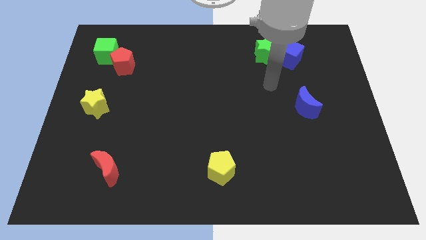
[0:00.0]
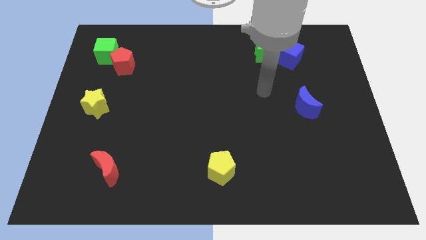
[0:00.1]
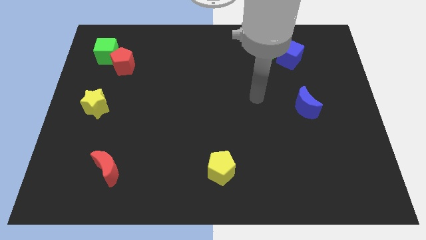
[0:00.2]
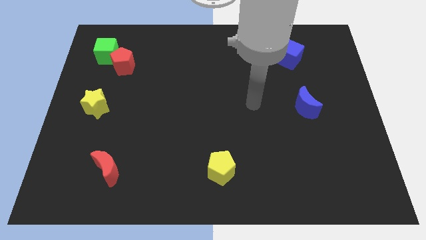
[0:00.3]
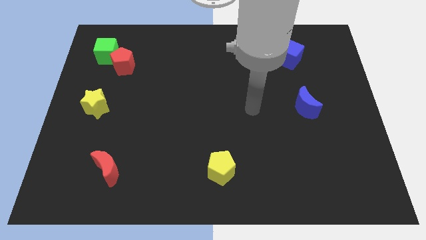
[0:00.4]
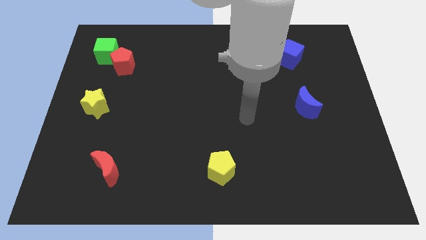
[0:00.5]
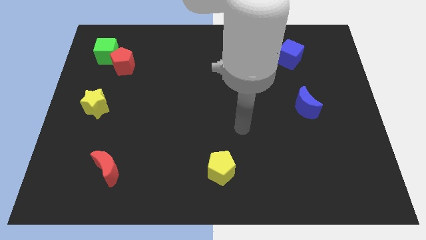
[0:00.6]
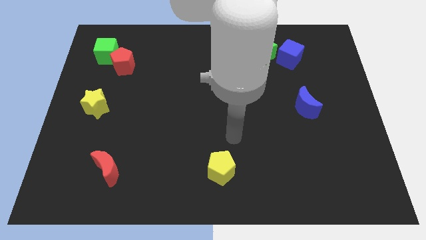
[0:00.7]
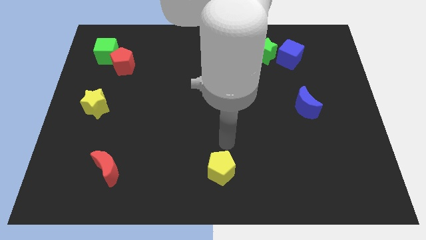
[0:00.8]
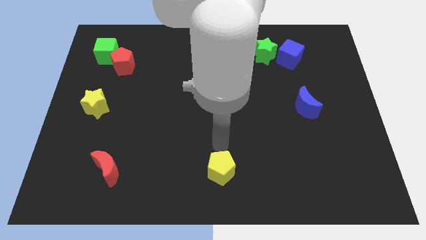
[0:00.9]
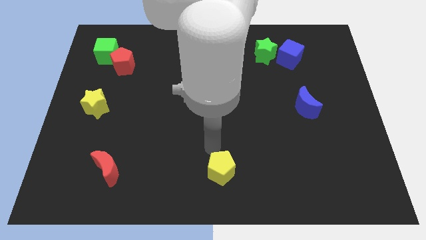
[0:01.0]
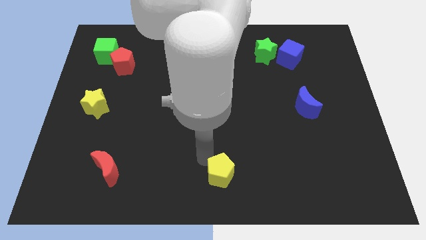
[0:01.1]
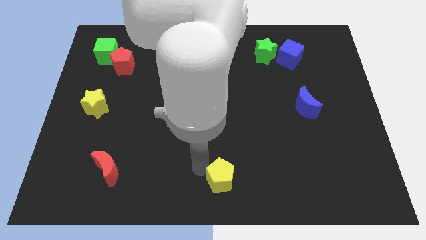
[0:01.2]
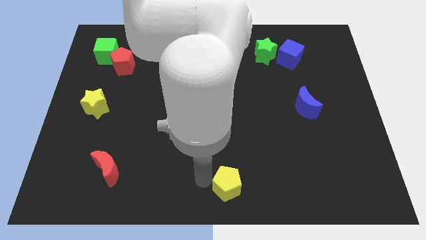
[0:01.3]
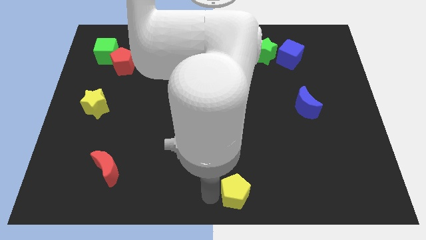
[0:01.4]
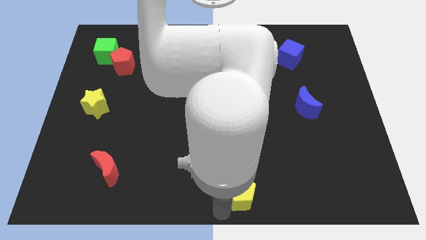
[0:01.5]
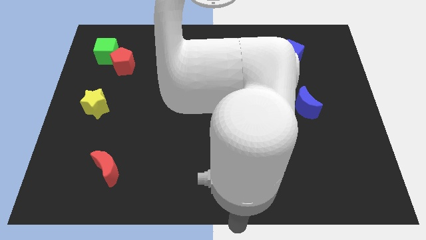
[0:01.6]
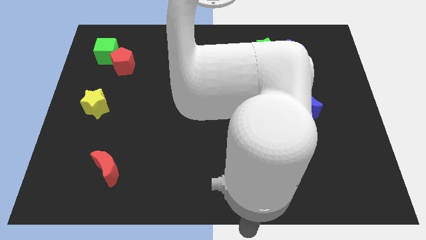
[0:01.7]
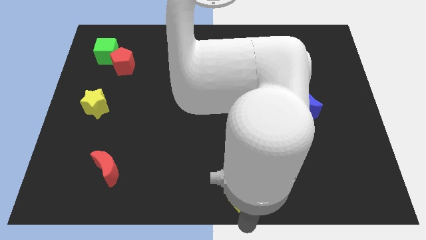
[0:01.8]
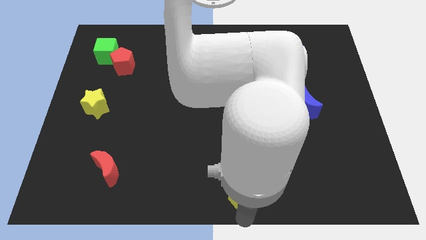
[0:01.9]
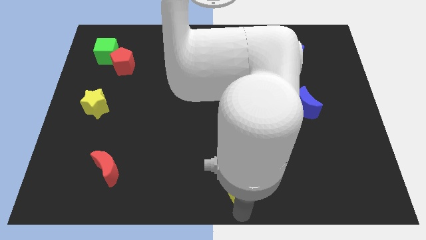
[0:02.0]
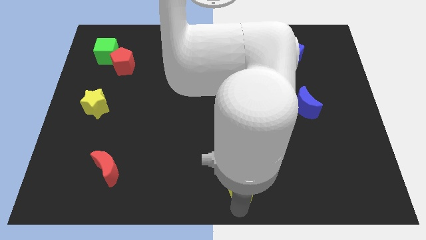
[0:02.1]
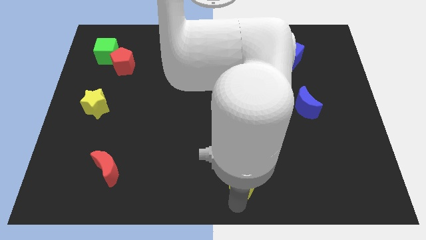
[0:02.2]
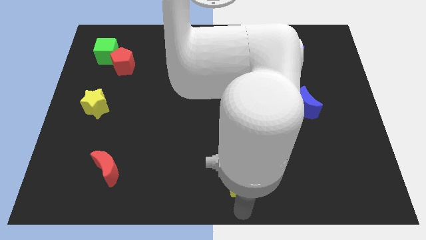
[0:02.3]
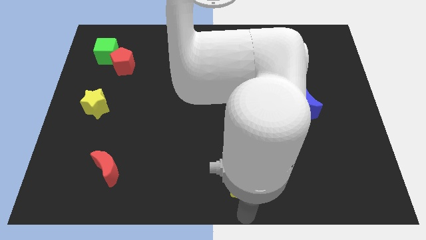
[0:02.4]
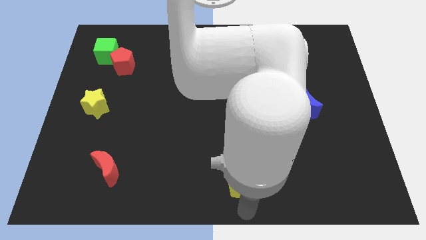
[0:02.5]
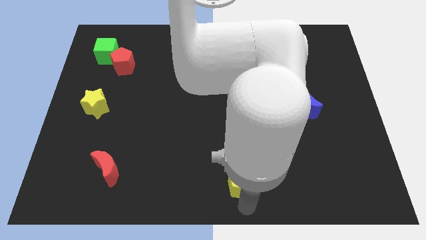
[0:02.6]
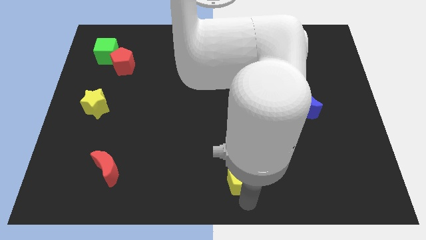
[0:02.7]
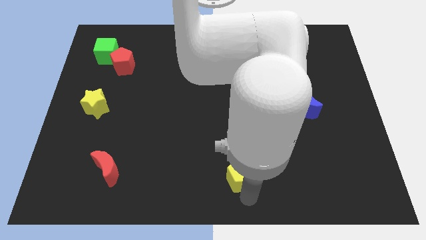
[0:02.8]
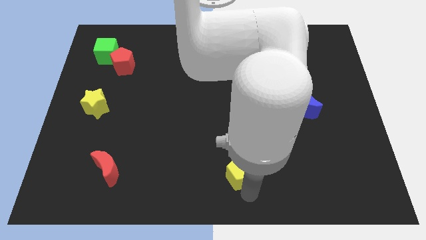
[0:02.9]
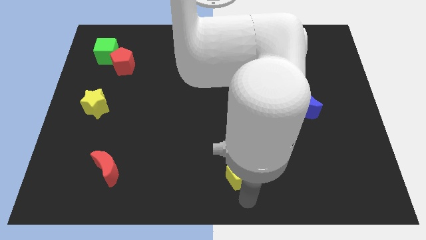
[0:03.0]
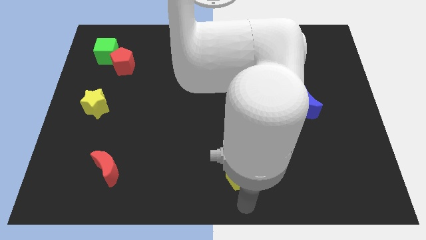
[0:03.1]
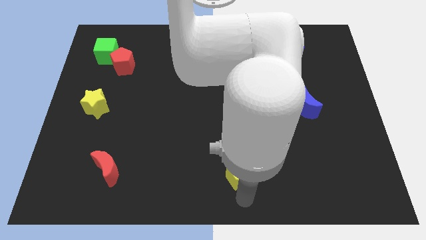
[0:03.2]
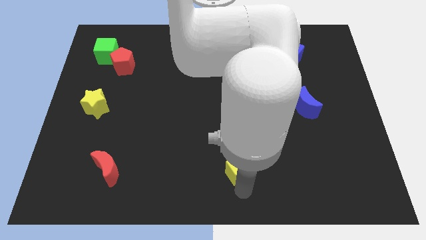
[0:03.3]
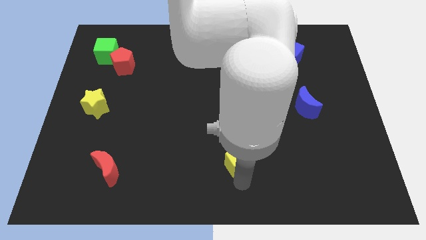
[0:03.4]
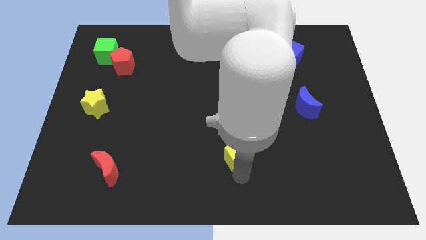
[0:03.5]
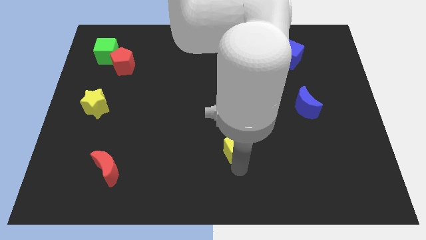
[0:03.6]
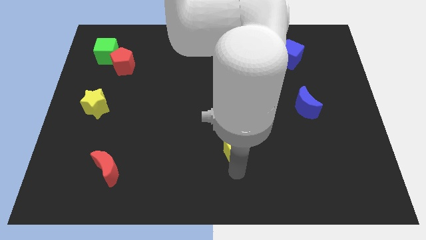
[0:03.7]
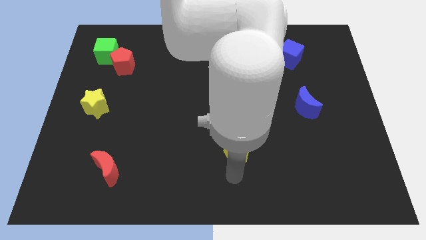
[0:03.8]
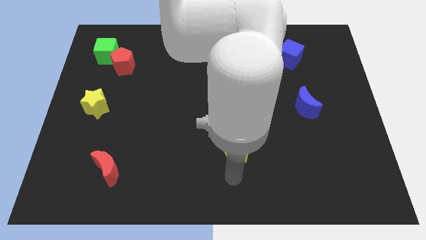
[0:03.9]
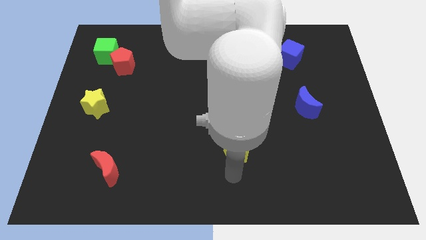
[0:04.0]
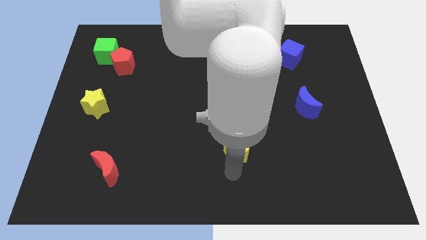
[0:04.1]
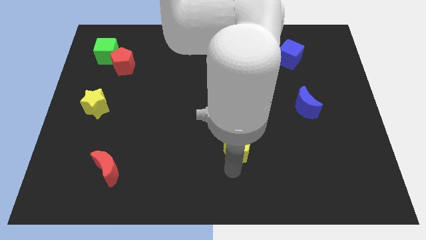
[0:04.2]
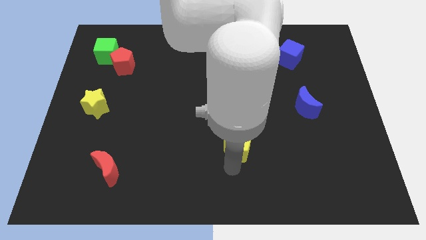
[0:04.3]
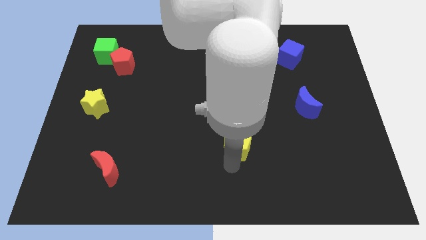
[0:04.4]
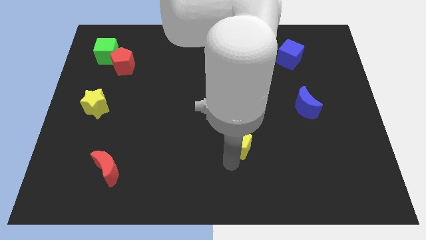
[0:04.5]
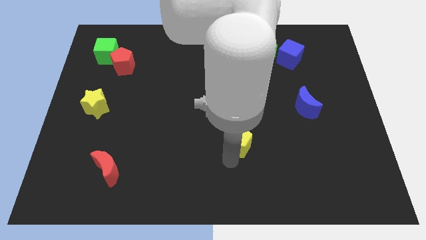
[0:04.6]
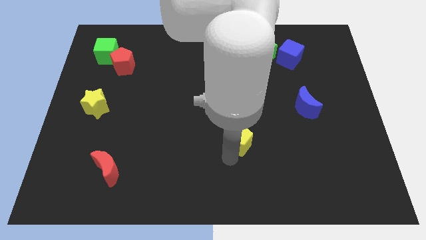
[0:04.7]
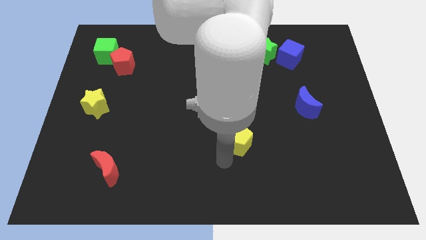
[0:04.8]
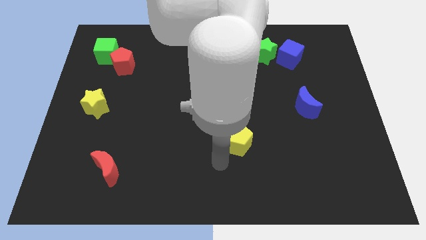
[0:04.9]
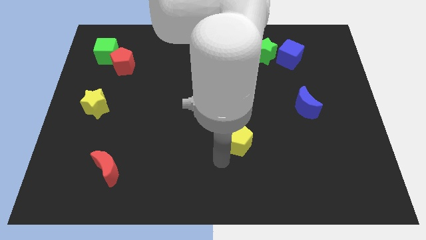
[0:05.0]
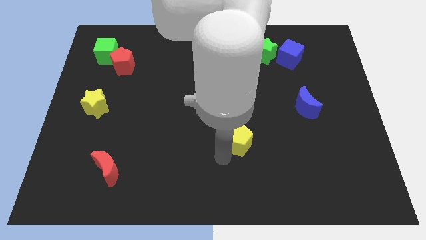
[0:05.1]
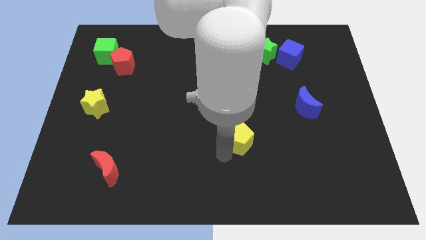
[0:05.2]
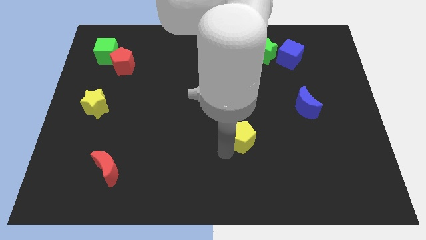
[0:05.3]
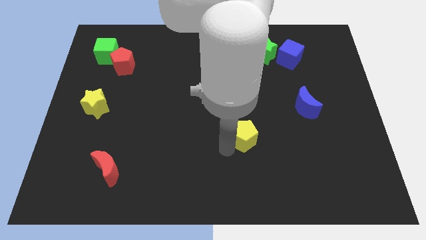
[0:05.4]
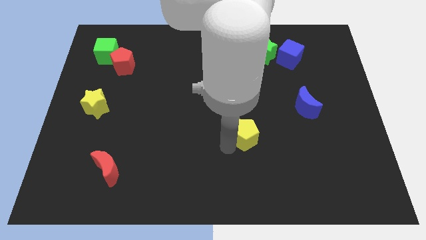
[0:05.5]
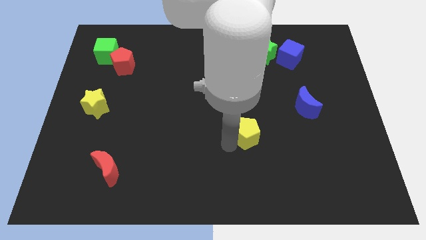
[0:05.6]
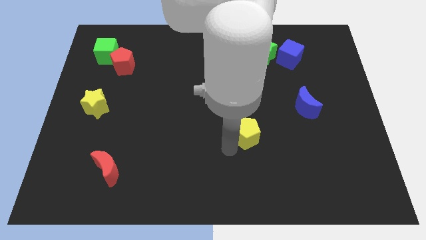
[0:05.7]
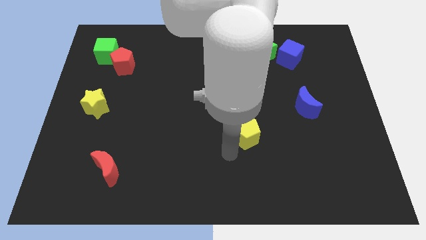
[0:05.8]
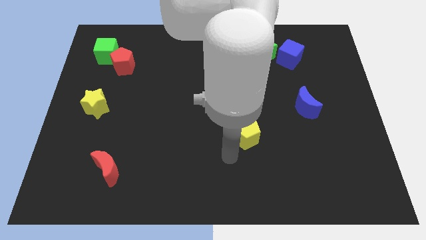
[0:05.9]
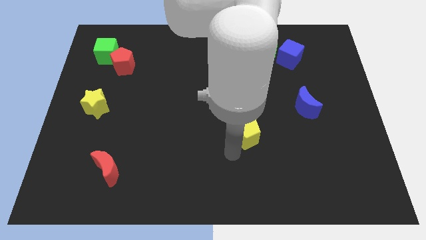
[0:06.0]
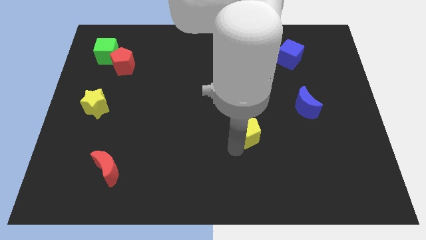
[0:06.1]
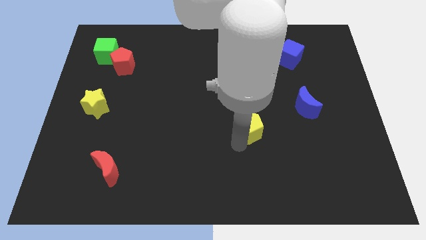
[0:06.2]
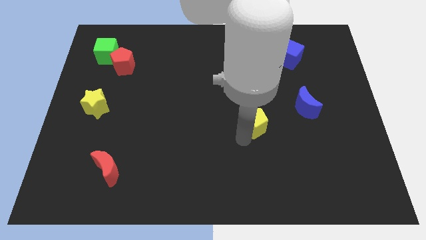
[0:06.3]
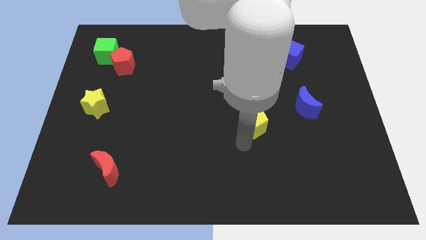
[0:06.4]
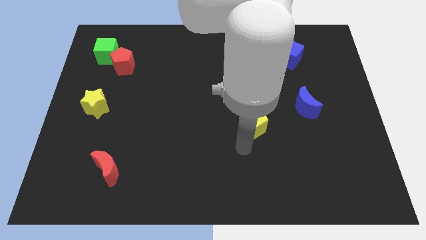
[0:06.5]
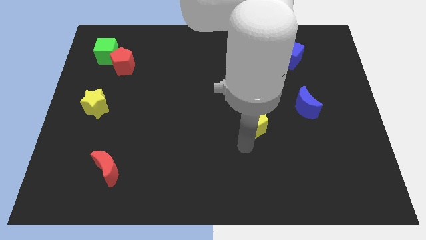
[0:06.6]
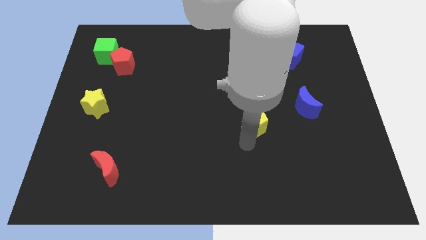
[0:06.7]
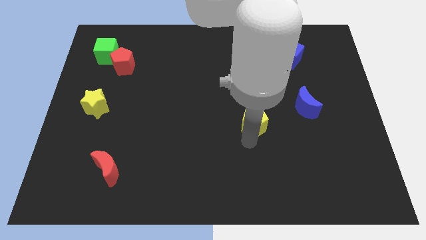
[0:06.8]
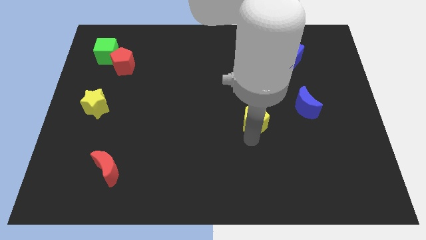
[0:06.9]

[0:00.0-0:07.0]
slide the yellow pentagon just left of the blue moon
